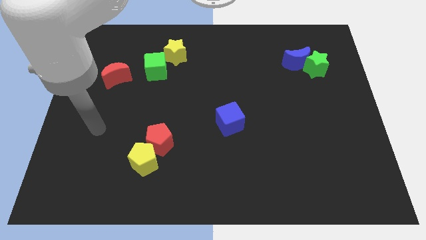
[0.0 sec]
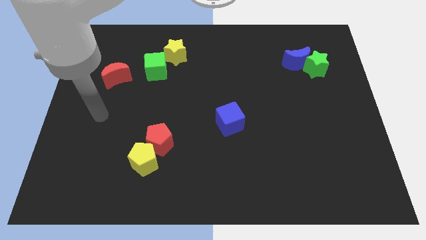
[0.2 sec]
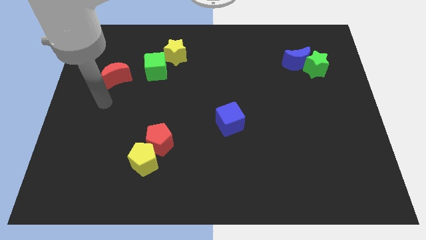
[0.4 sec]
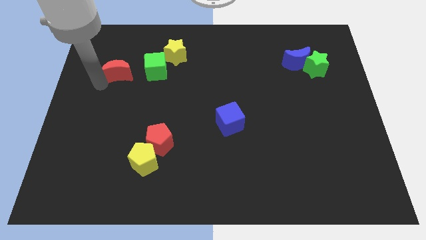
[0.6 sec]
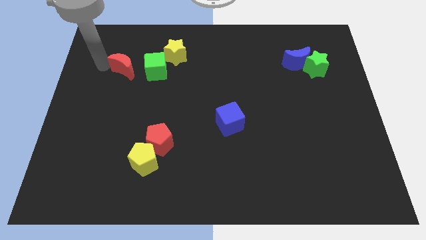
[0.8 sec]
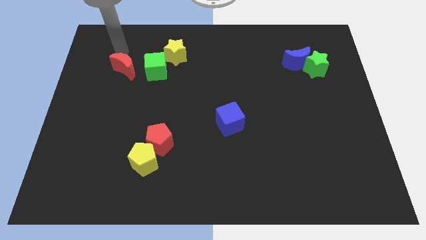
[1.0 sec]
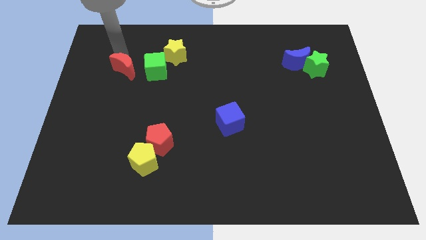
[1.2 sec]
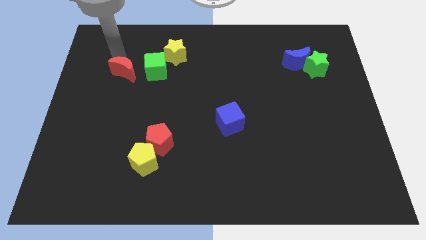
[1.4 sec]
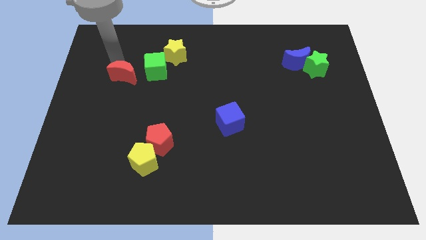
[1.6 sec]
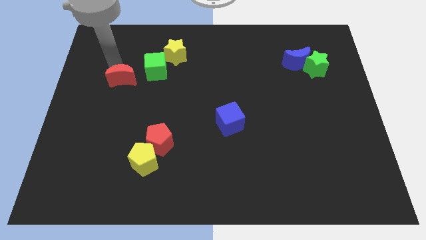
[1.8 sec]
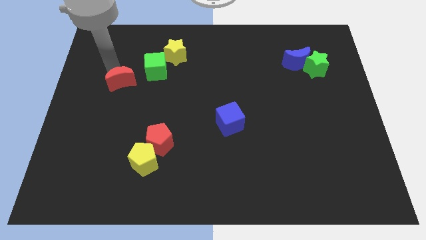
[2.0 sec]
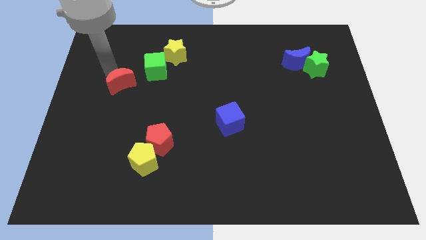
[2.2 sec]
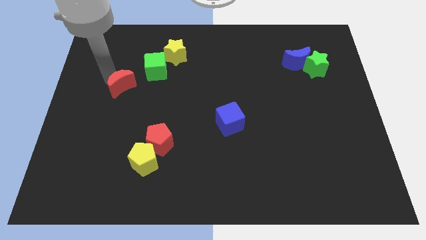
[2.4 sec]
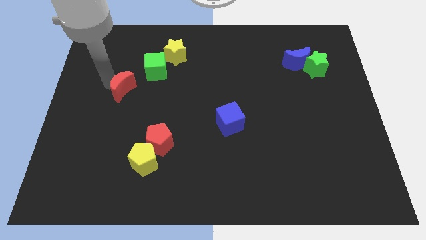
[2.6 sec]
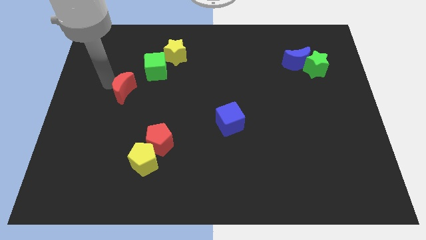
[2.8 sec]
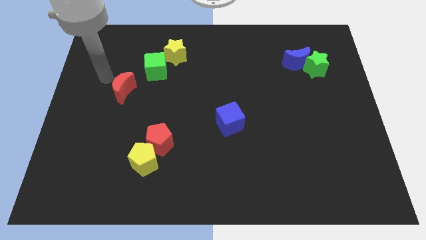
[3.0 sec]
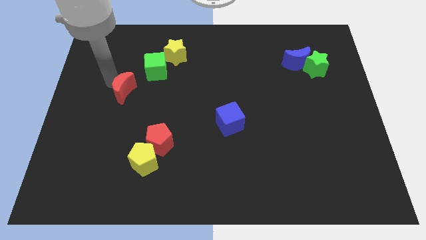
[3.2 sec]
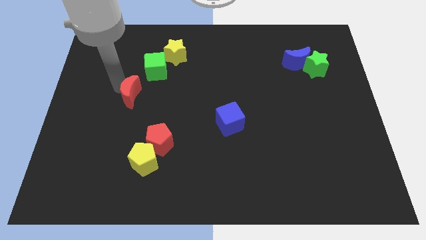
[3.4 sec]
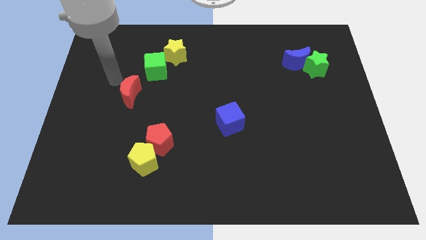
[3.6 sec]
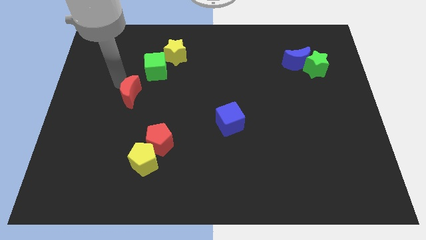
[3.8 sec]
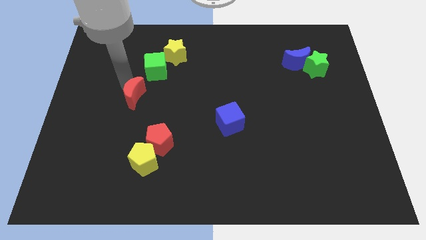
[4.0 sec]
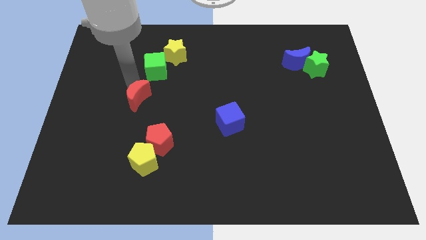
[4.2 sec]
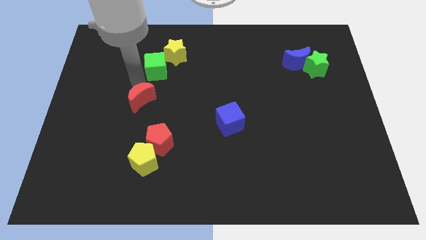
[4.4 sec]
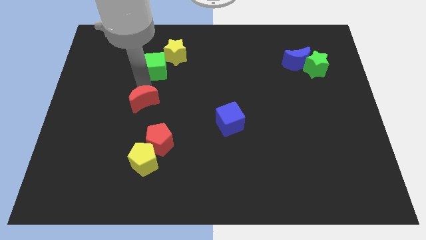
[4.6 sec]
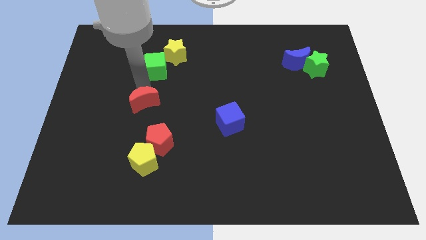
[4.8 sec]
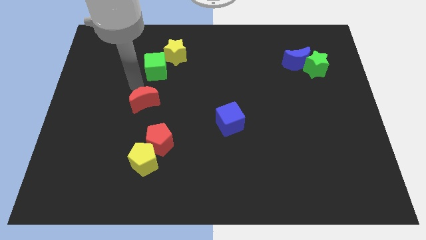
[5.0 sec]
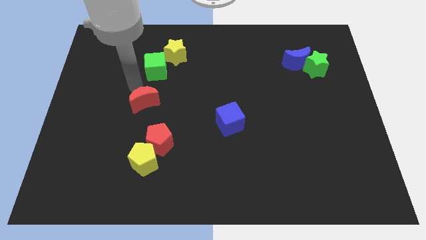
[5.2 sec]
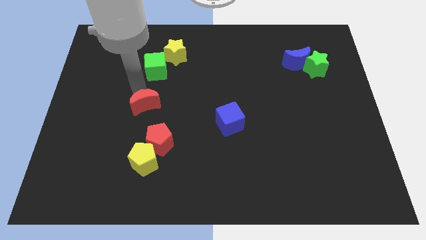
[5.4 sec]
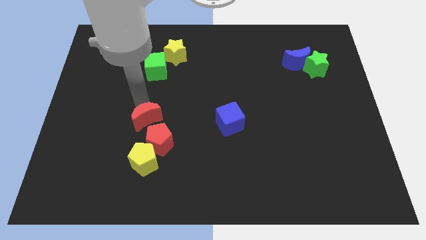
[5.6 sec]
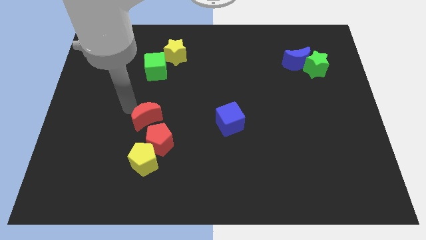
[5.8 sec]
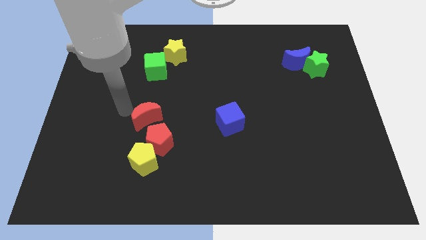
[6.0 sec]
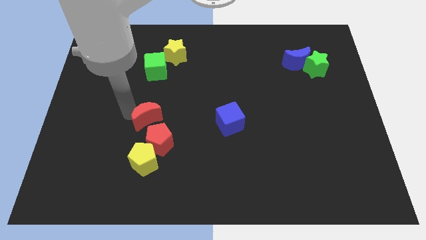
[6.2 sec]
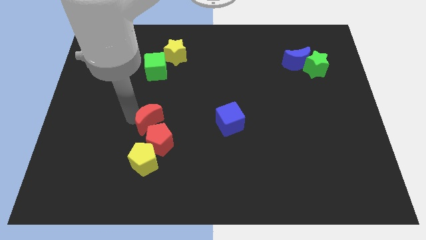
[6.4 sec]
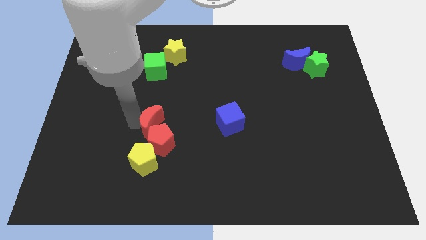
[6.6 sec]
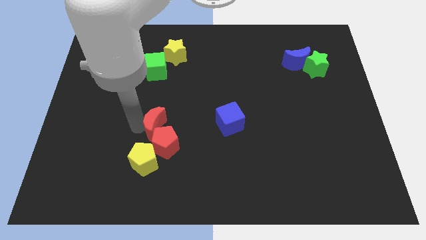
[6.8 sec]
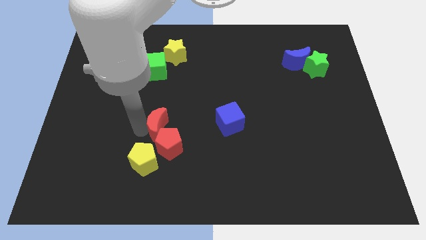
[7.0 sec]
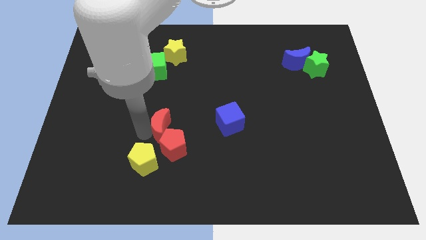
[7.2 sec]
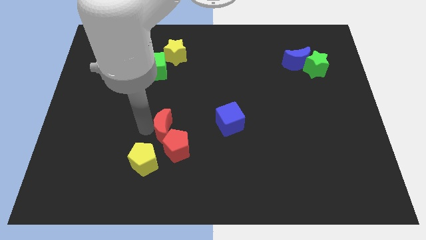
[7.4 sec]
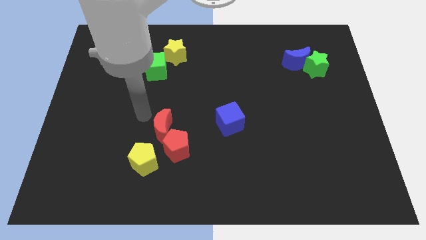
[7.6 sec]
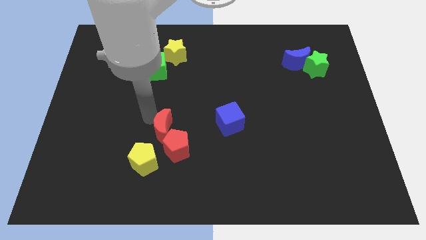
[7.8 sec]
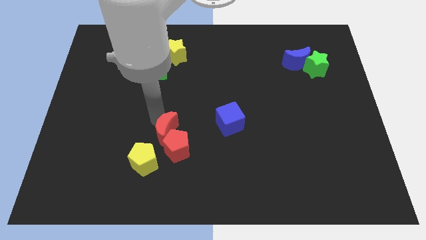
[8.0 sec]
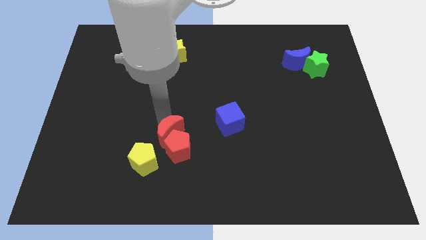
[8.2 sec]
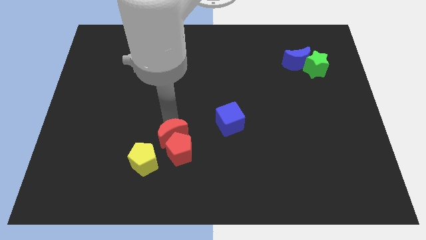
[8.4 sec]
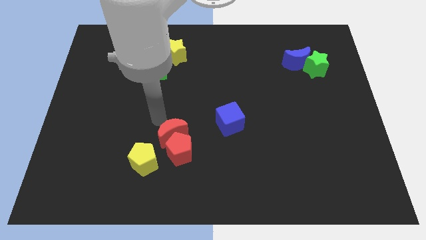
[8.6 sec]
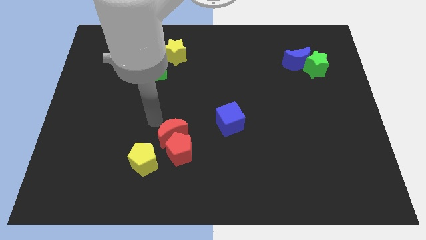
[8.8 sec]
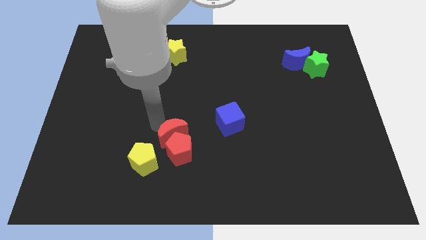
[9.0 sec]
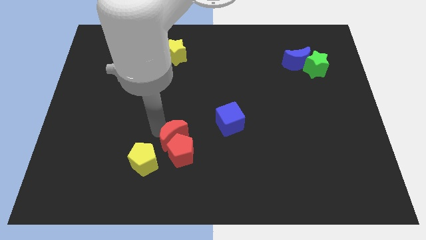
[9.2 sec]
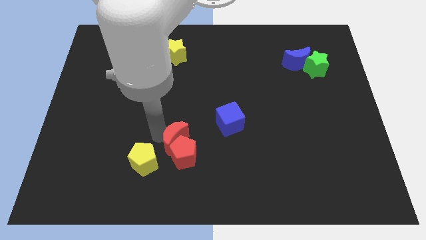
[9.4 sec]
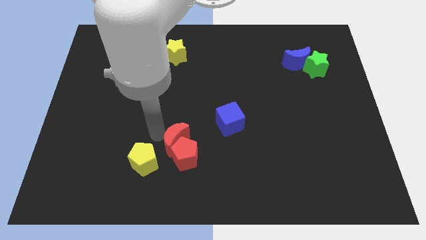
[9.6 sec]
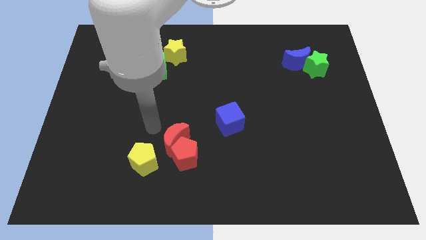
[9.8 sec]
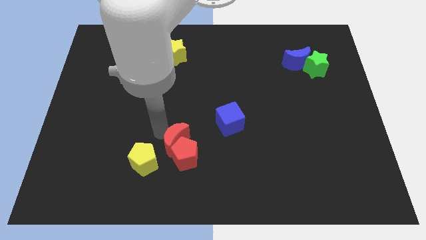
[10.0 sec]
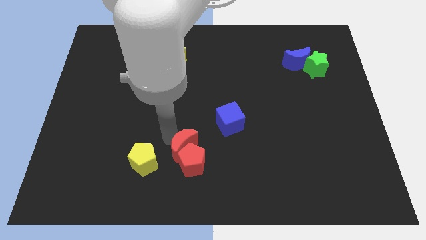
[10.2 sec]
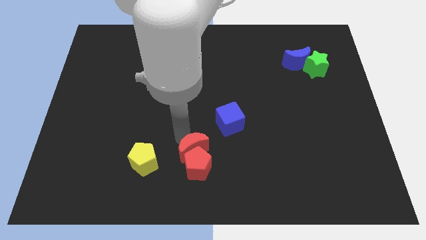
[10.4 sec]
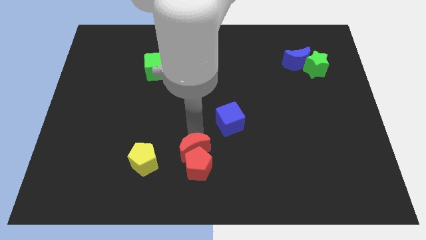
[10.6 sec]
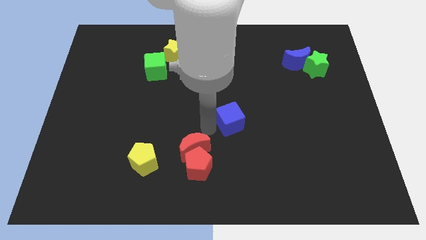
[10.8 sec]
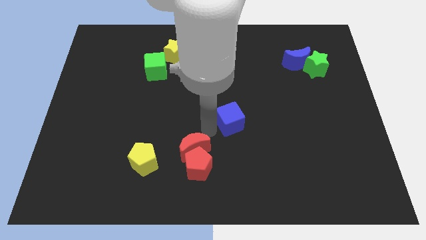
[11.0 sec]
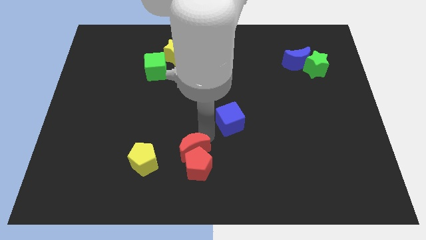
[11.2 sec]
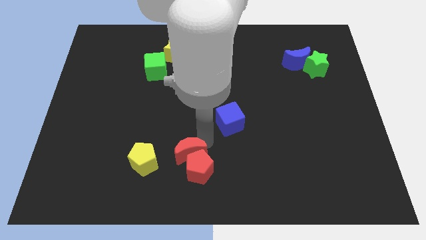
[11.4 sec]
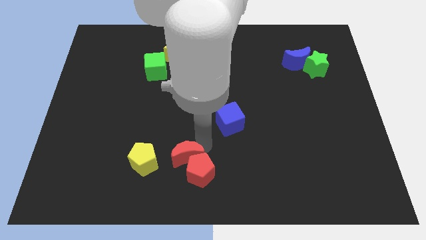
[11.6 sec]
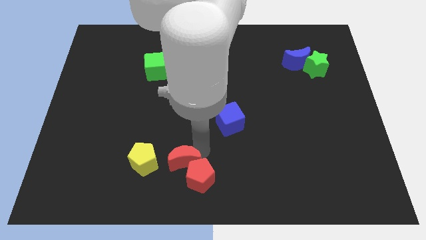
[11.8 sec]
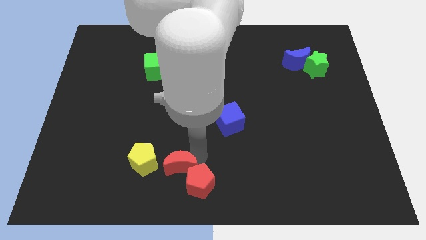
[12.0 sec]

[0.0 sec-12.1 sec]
slide the red moon to the bottom right side of the yellow pentagon

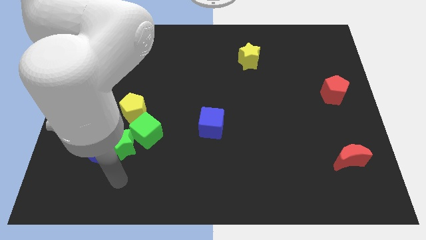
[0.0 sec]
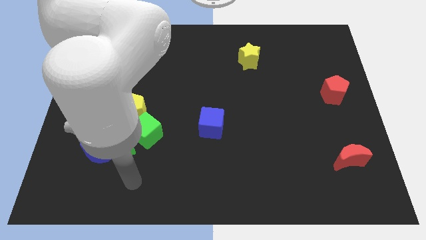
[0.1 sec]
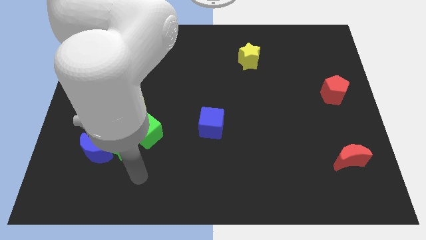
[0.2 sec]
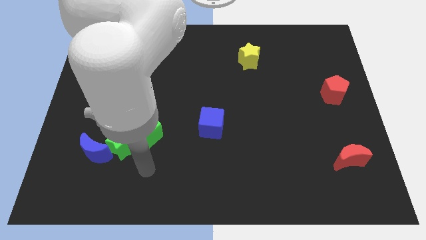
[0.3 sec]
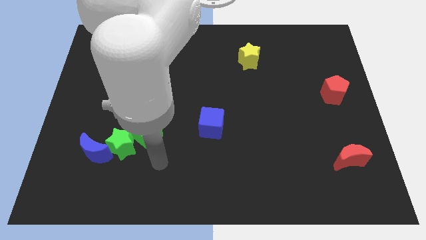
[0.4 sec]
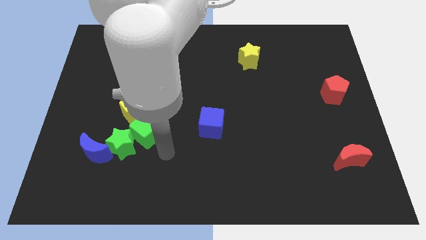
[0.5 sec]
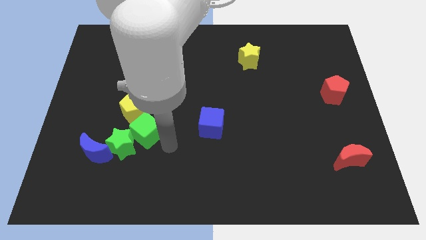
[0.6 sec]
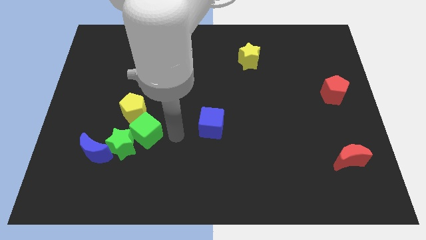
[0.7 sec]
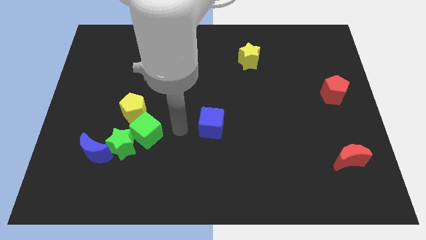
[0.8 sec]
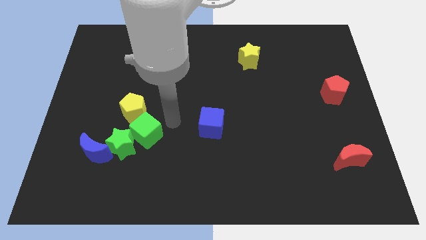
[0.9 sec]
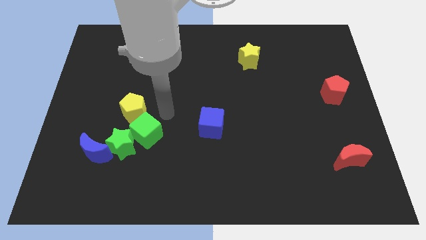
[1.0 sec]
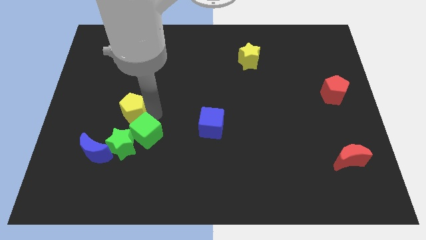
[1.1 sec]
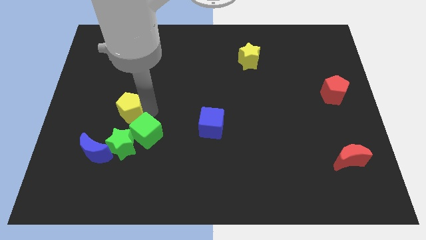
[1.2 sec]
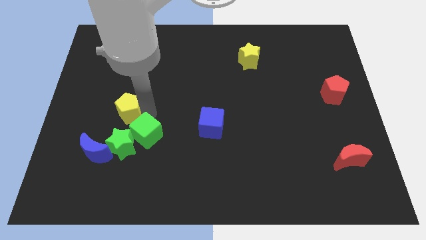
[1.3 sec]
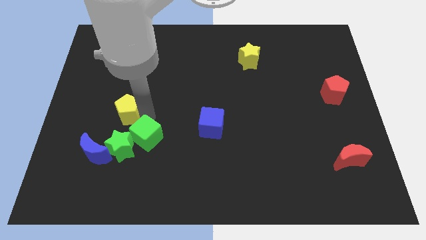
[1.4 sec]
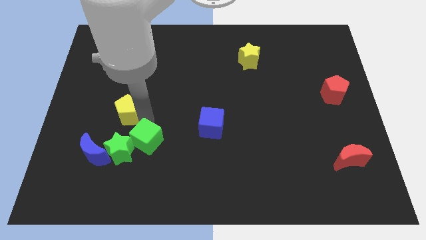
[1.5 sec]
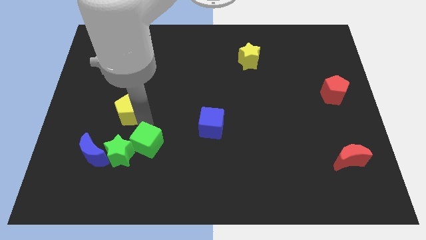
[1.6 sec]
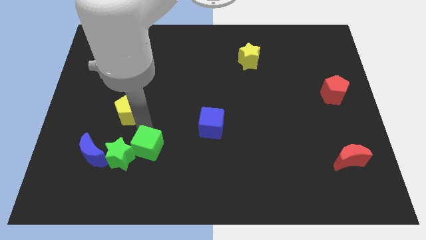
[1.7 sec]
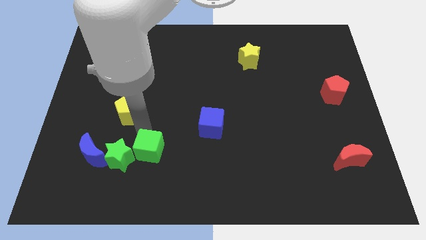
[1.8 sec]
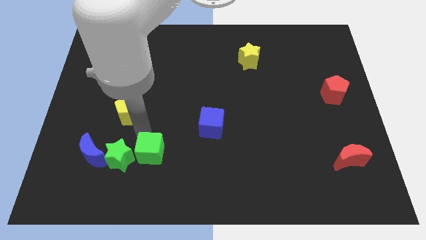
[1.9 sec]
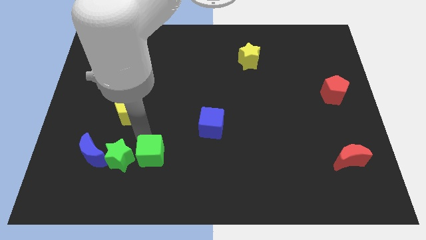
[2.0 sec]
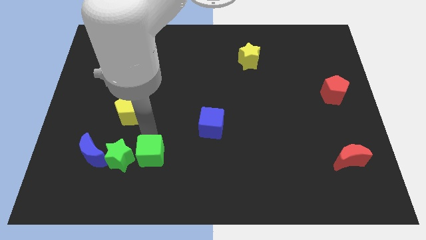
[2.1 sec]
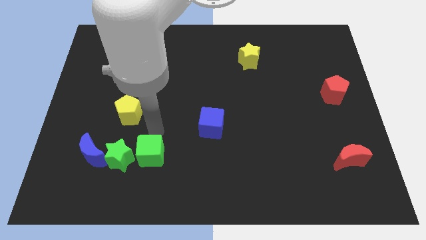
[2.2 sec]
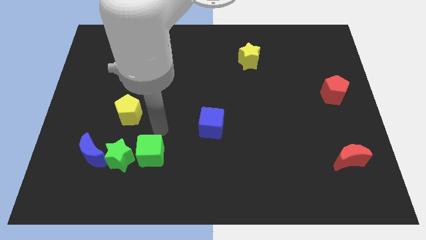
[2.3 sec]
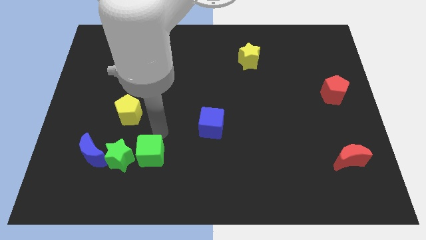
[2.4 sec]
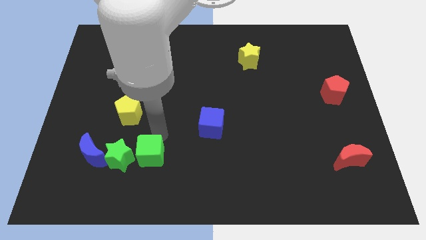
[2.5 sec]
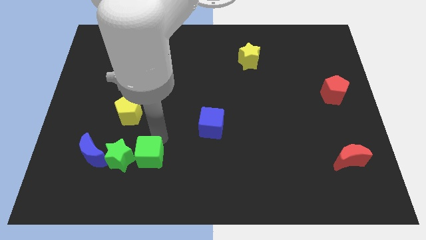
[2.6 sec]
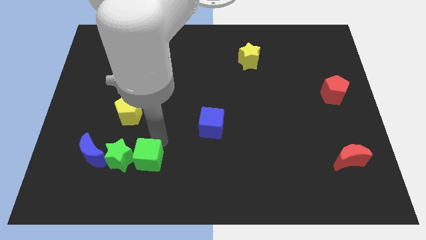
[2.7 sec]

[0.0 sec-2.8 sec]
slide the green cube to the bottom right side of the green star
